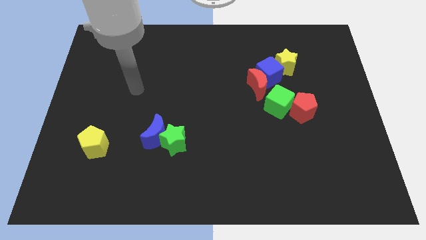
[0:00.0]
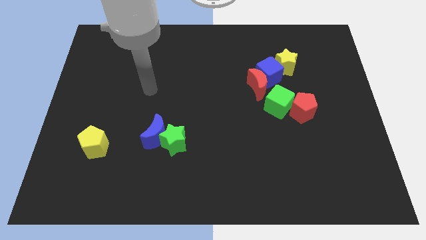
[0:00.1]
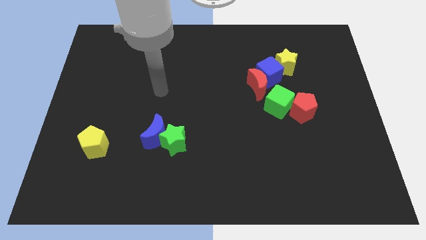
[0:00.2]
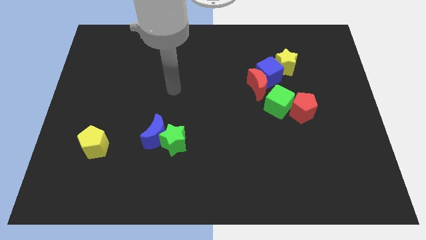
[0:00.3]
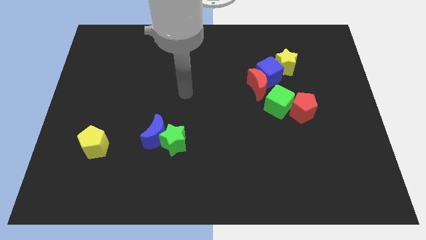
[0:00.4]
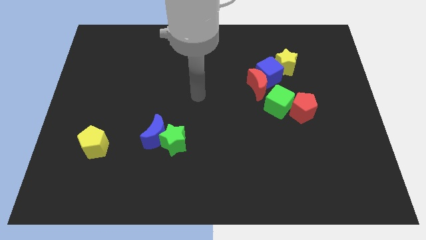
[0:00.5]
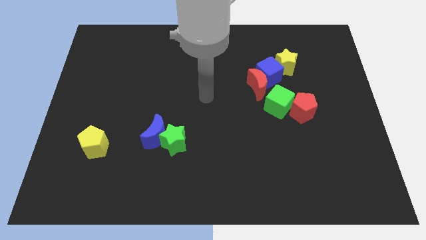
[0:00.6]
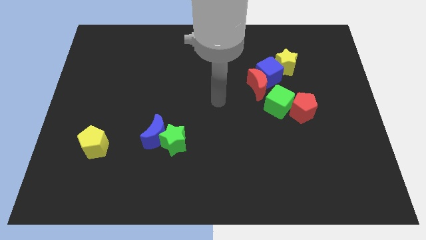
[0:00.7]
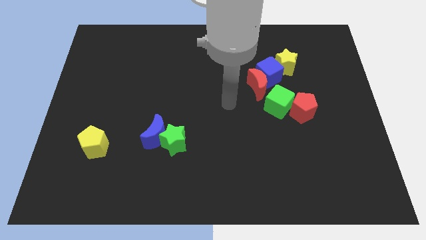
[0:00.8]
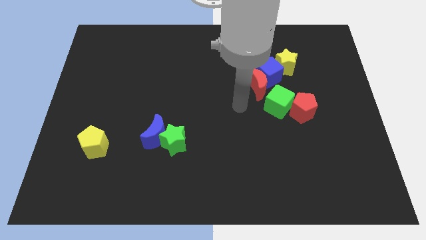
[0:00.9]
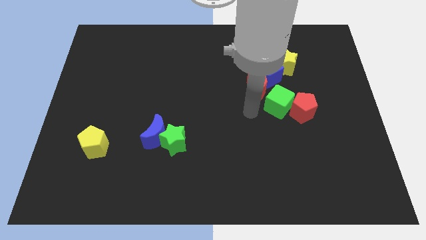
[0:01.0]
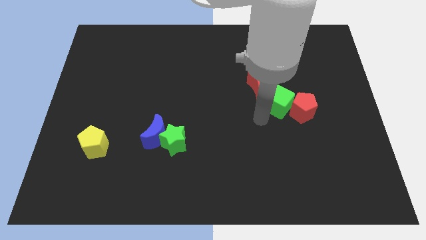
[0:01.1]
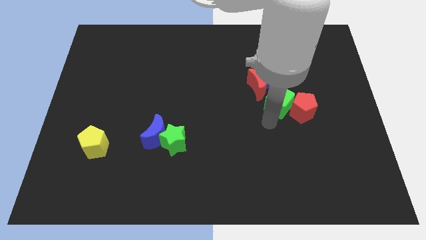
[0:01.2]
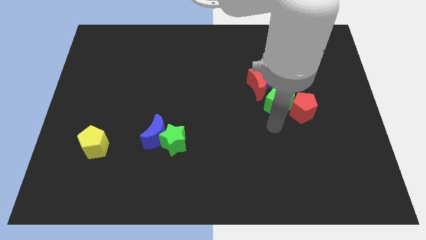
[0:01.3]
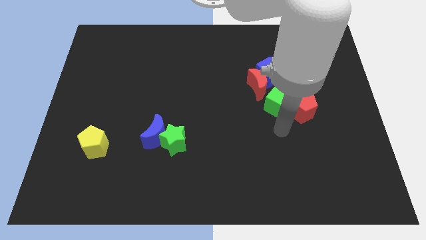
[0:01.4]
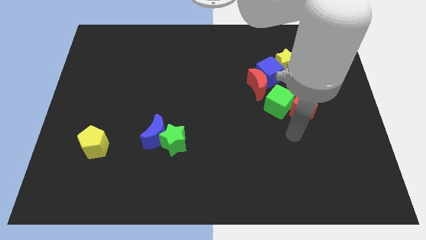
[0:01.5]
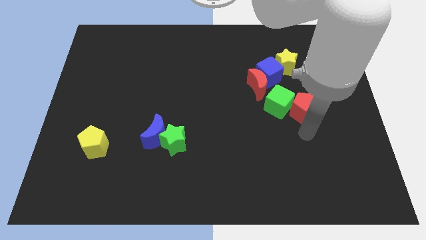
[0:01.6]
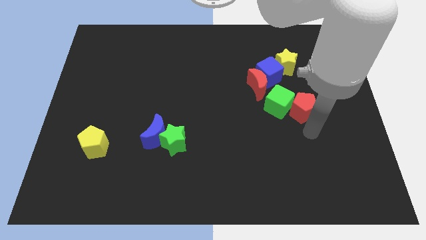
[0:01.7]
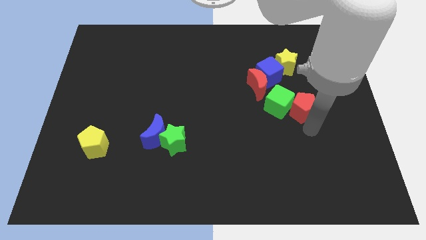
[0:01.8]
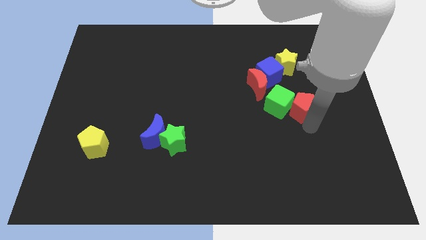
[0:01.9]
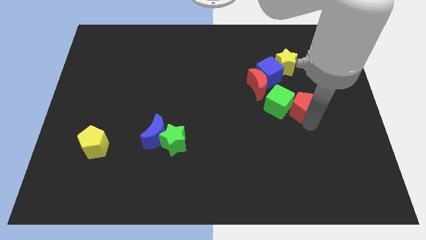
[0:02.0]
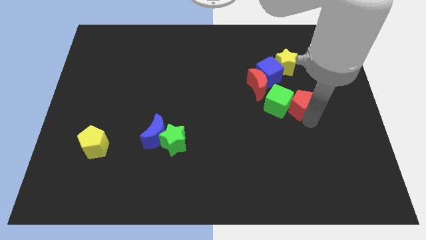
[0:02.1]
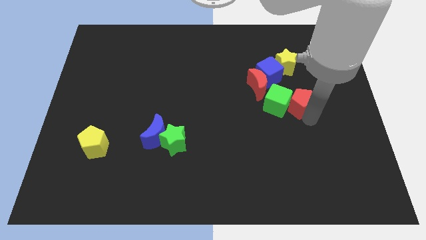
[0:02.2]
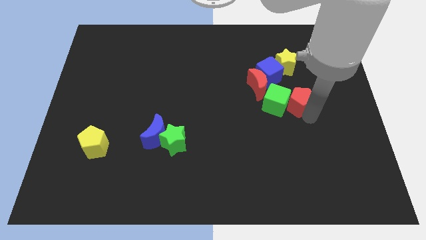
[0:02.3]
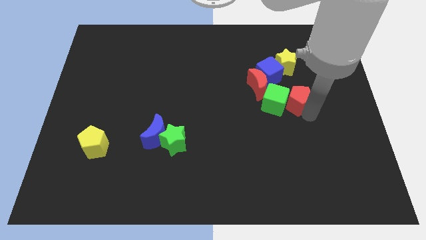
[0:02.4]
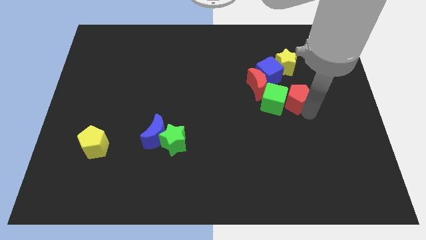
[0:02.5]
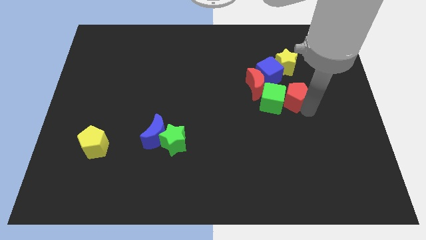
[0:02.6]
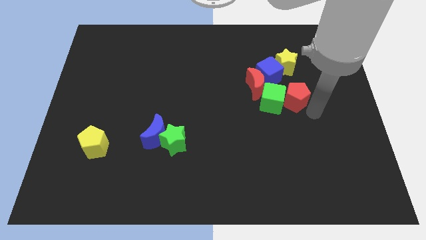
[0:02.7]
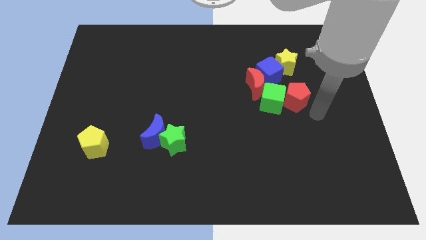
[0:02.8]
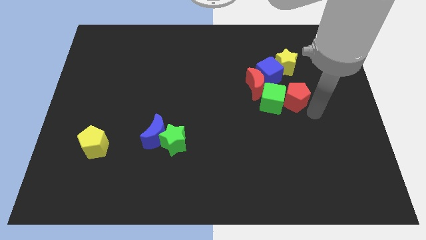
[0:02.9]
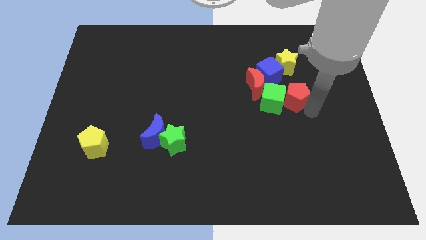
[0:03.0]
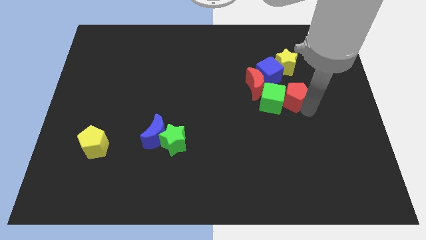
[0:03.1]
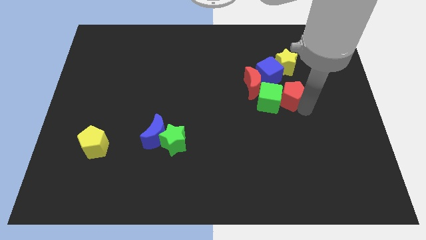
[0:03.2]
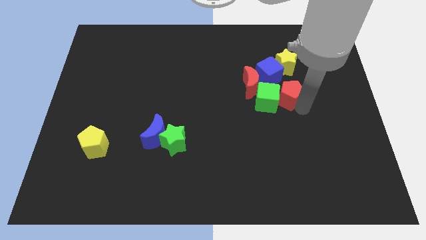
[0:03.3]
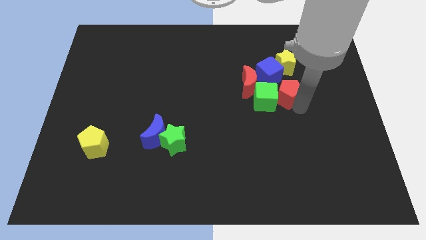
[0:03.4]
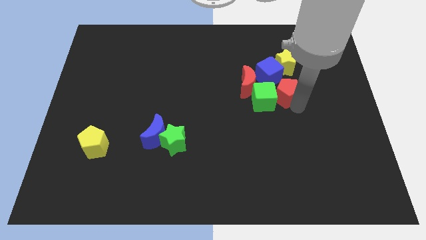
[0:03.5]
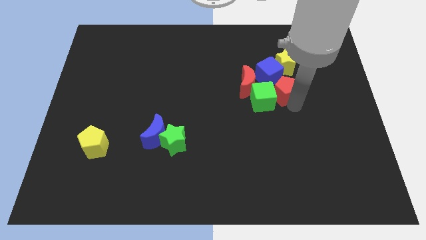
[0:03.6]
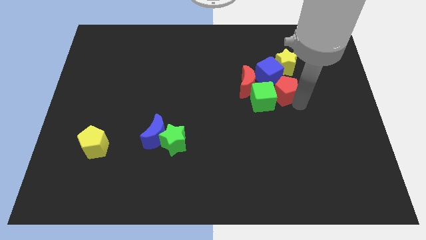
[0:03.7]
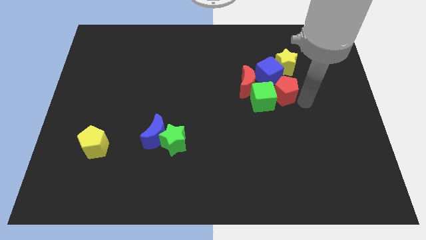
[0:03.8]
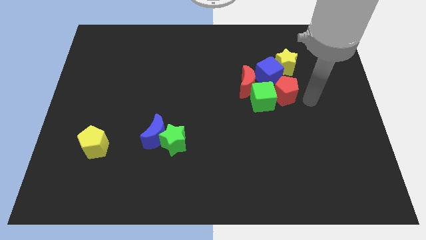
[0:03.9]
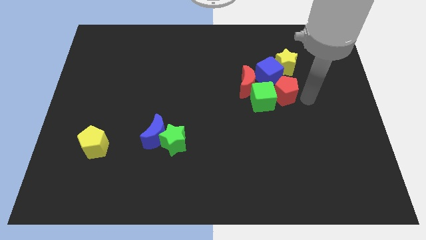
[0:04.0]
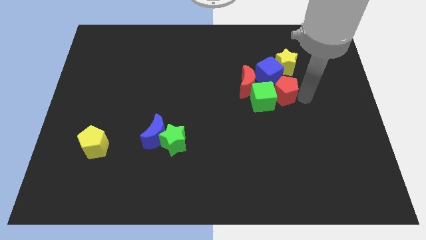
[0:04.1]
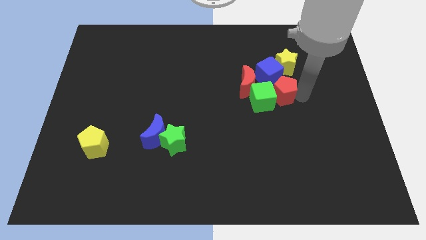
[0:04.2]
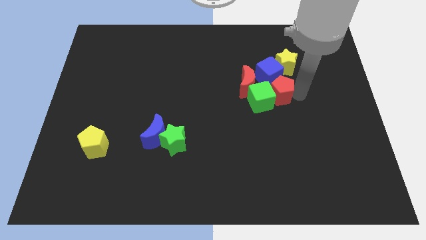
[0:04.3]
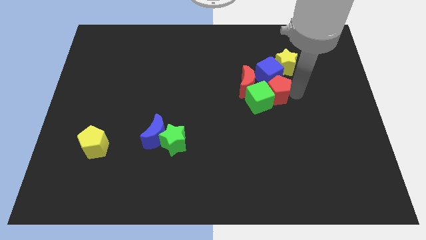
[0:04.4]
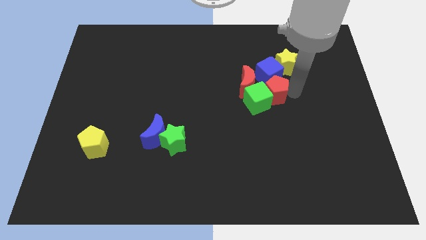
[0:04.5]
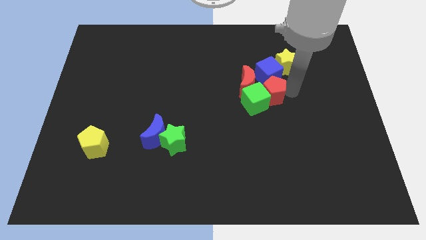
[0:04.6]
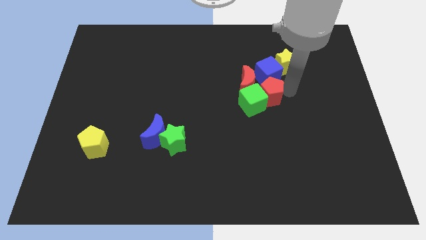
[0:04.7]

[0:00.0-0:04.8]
put the red pentagon to the red moon

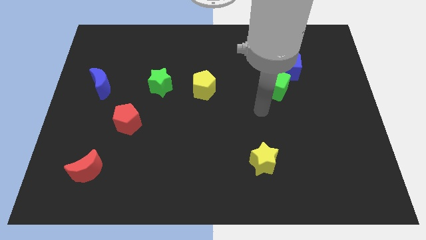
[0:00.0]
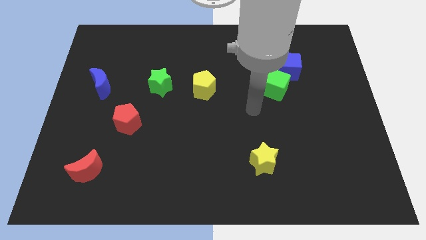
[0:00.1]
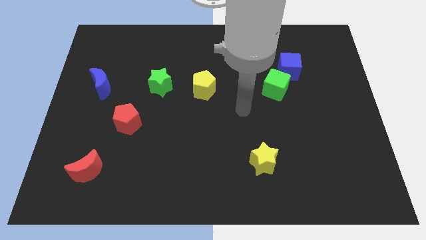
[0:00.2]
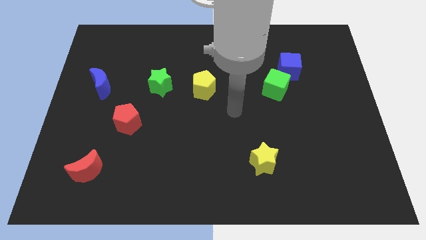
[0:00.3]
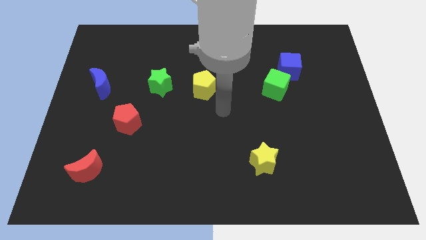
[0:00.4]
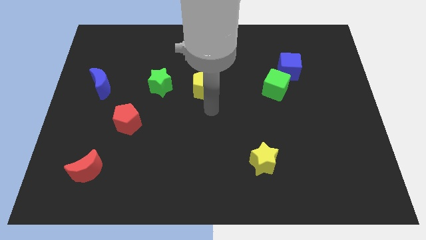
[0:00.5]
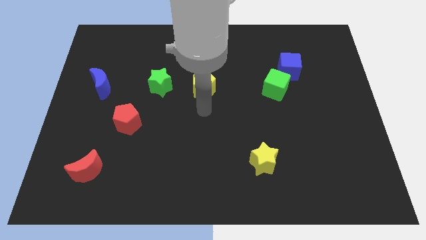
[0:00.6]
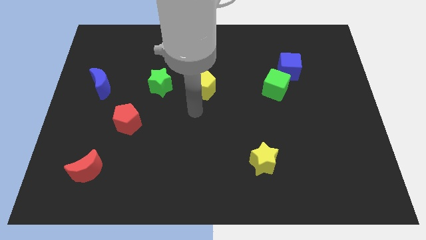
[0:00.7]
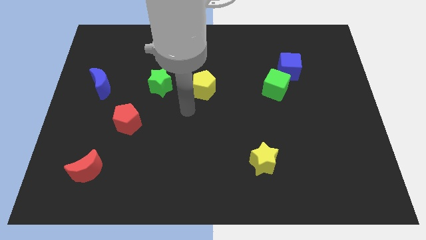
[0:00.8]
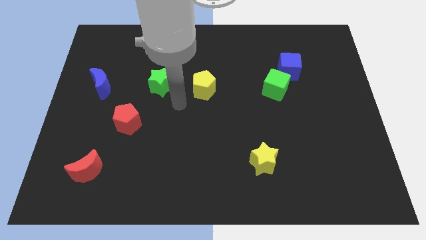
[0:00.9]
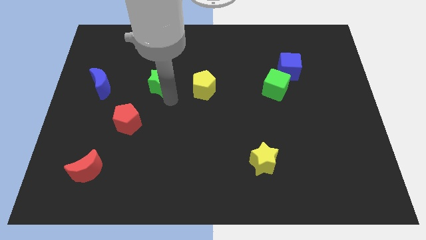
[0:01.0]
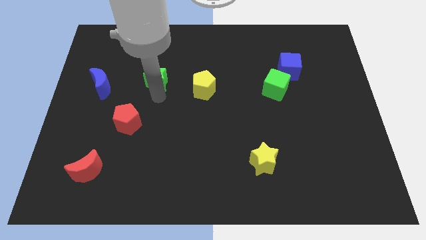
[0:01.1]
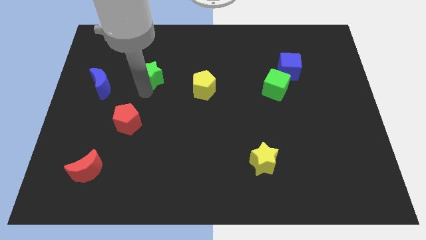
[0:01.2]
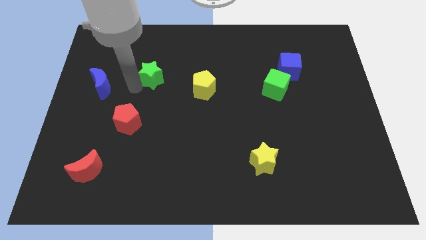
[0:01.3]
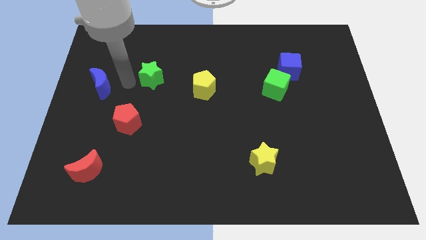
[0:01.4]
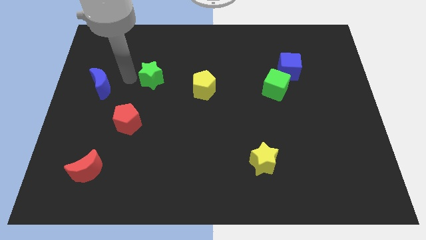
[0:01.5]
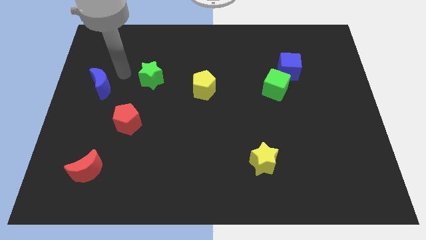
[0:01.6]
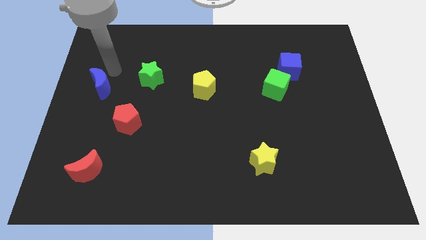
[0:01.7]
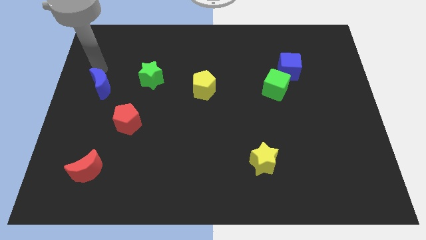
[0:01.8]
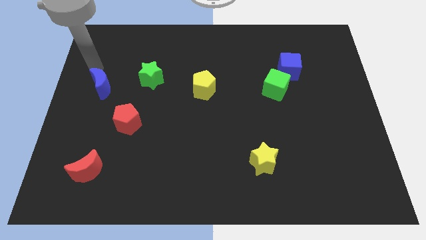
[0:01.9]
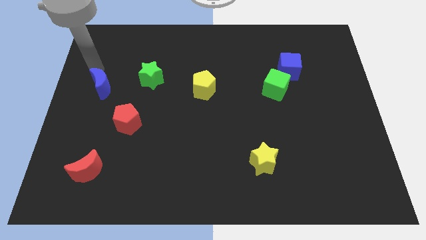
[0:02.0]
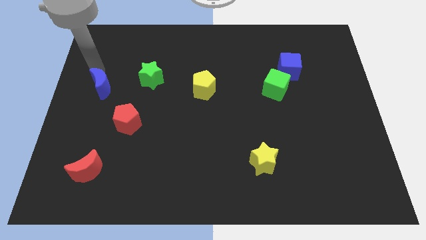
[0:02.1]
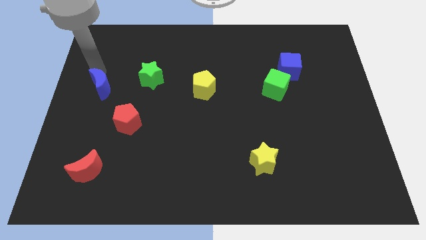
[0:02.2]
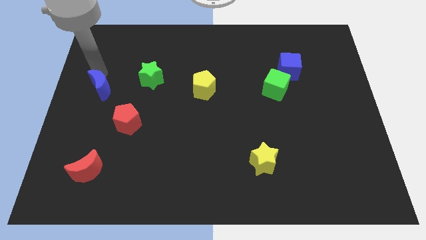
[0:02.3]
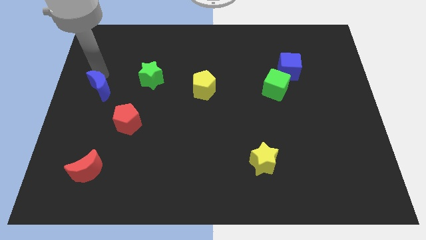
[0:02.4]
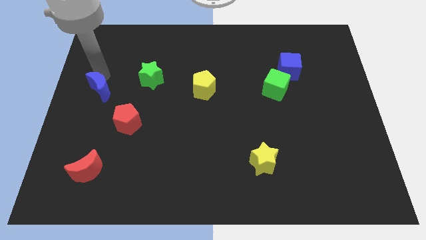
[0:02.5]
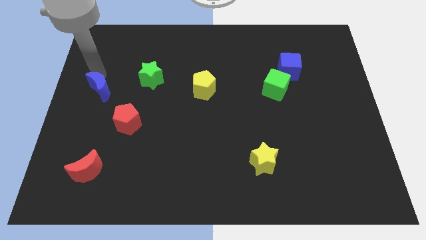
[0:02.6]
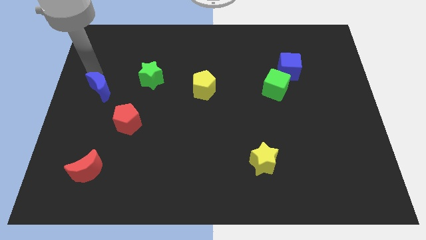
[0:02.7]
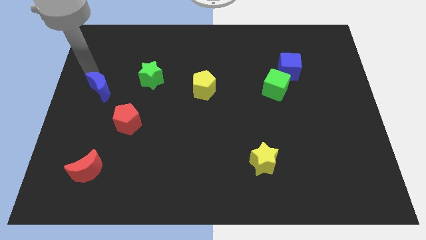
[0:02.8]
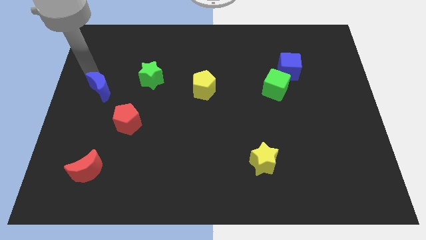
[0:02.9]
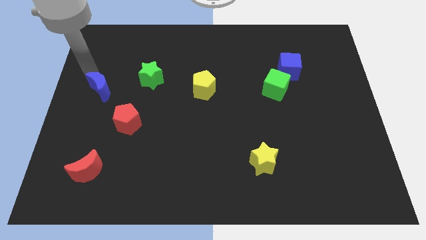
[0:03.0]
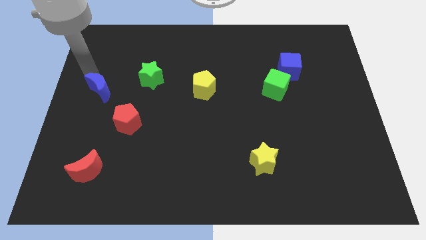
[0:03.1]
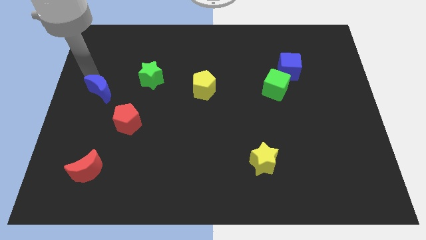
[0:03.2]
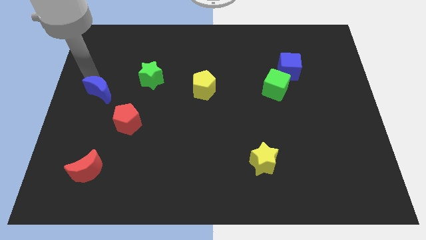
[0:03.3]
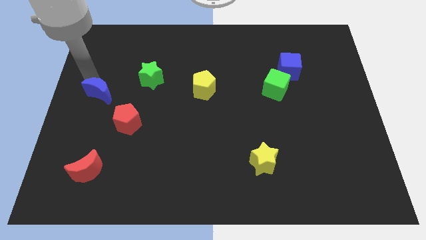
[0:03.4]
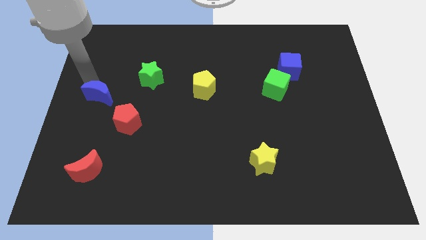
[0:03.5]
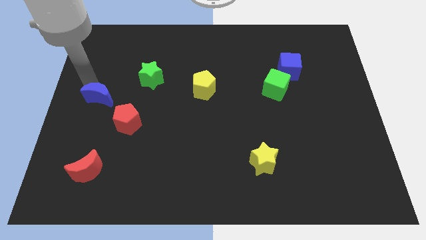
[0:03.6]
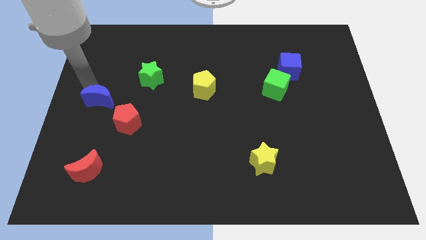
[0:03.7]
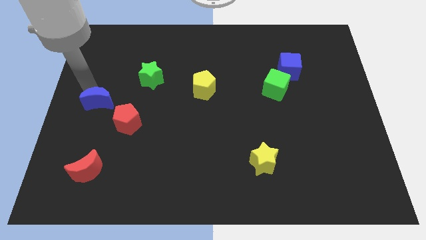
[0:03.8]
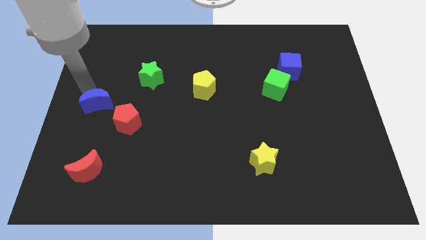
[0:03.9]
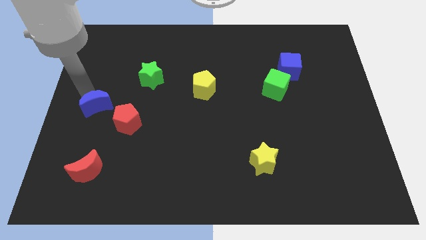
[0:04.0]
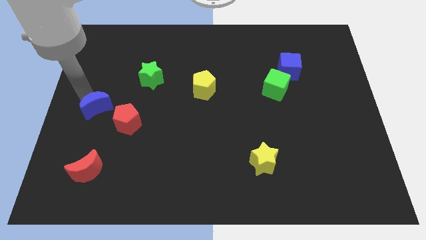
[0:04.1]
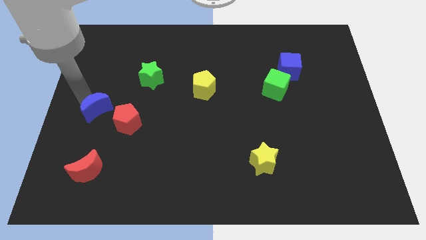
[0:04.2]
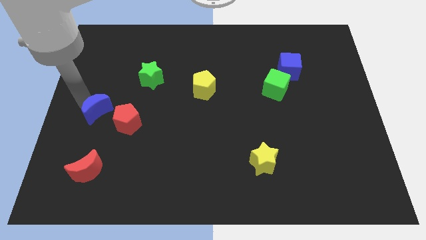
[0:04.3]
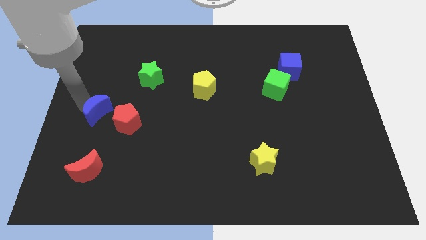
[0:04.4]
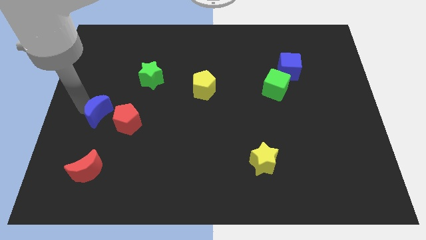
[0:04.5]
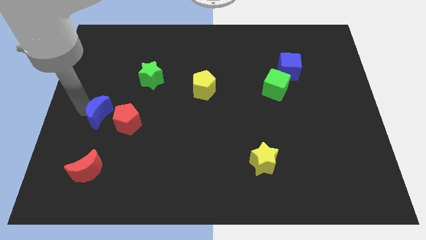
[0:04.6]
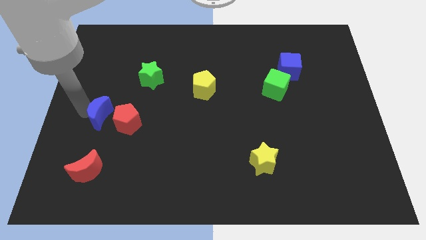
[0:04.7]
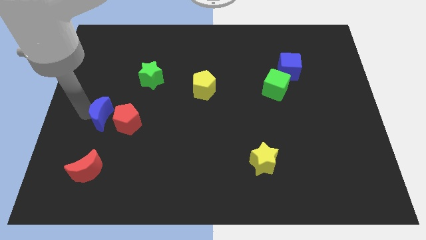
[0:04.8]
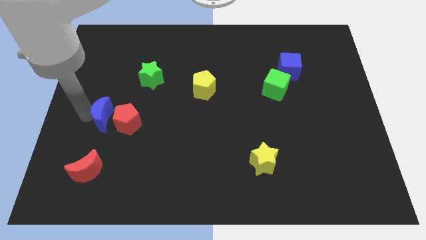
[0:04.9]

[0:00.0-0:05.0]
push the blue moon towards the red pentagon
